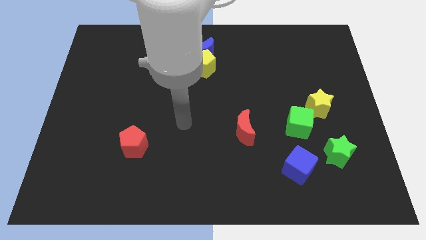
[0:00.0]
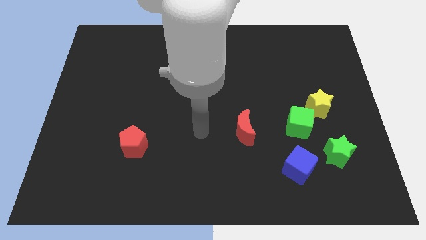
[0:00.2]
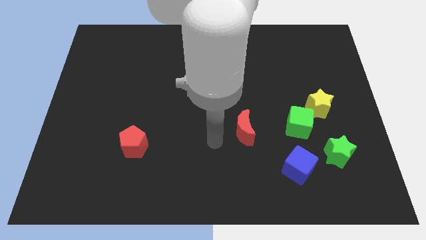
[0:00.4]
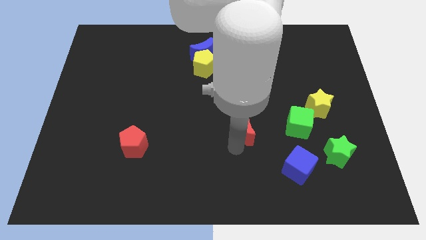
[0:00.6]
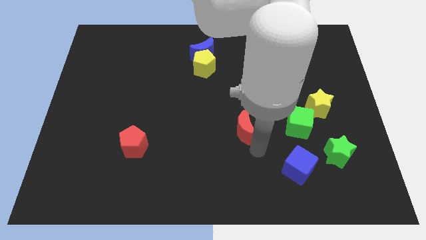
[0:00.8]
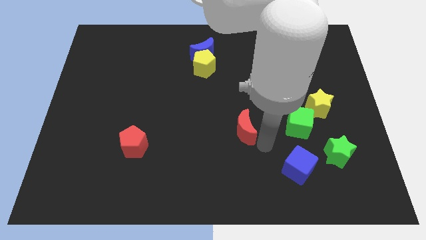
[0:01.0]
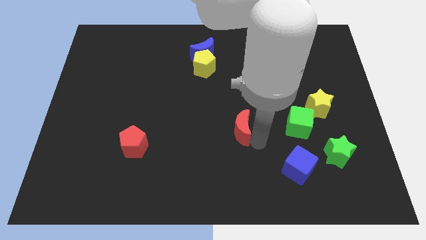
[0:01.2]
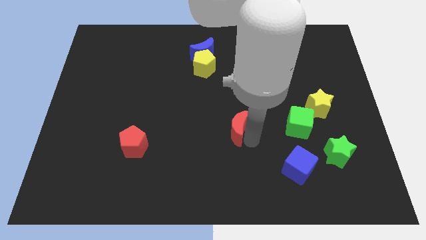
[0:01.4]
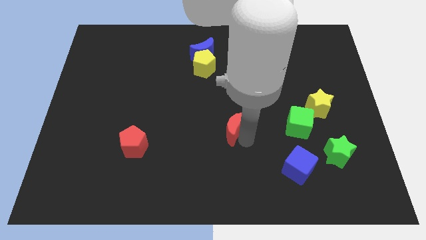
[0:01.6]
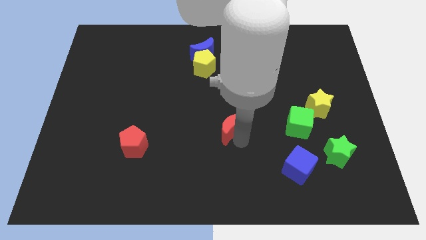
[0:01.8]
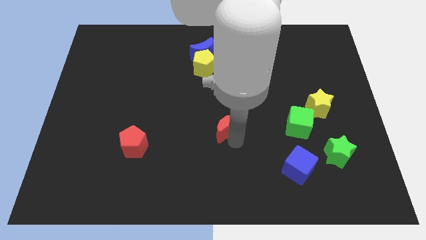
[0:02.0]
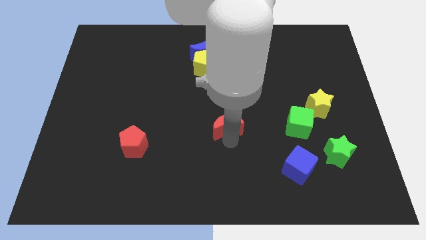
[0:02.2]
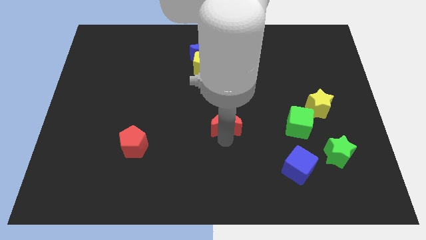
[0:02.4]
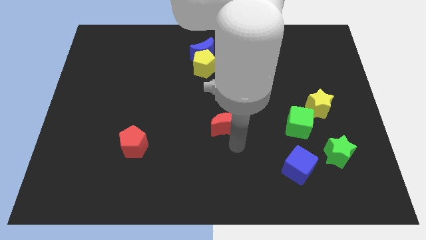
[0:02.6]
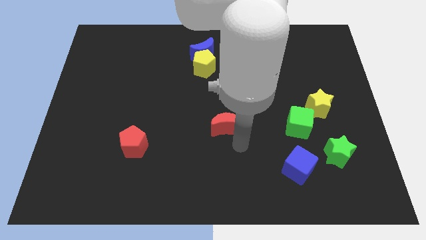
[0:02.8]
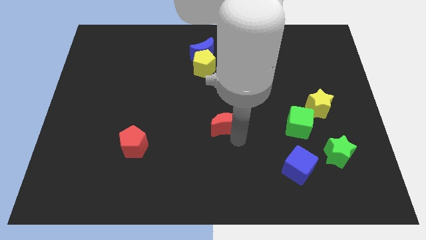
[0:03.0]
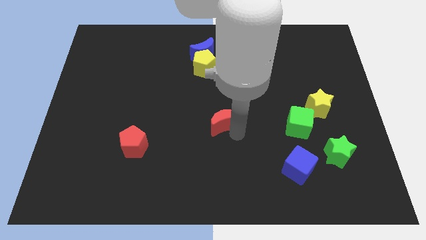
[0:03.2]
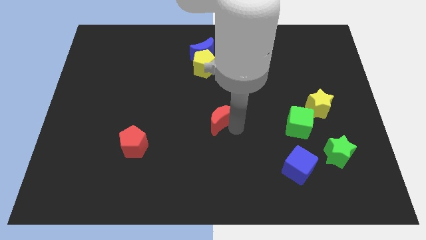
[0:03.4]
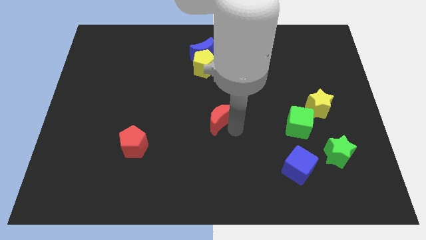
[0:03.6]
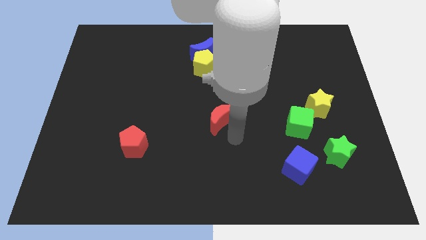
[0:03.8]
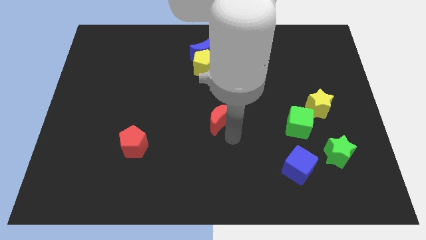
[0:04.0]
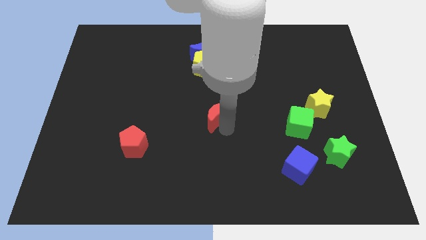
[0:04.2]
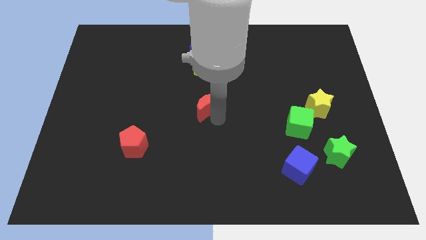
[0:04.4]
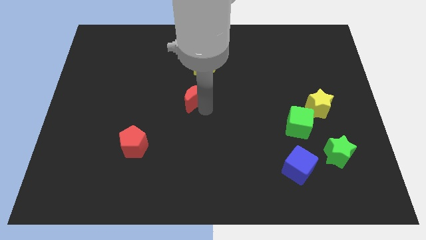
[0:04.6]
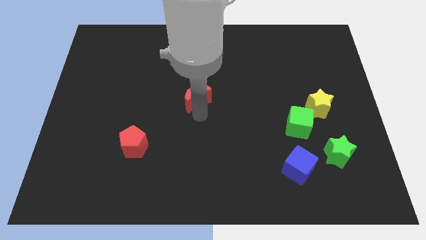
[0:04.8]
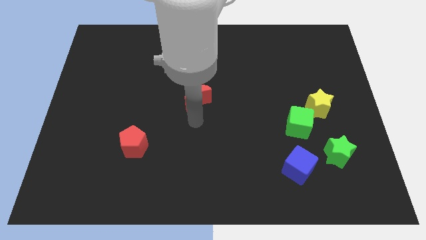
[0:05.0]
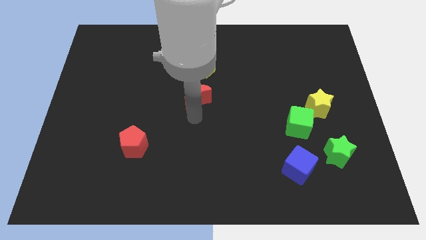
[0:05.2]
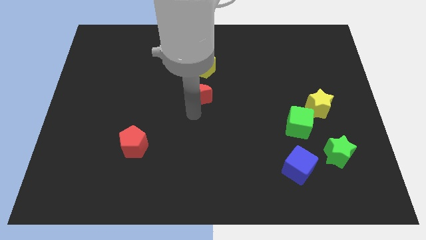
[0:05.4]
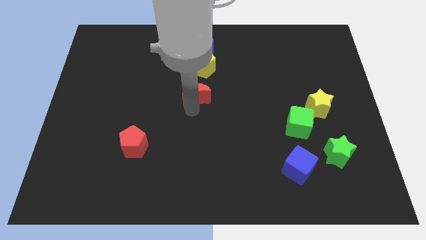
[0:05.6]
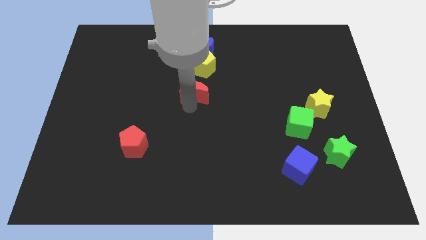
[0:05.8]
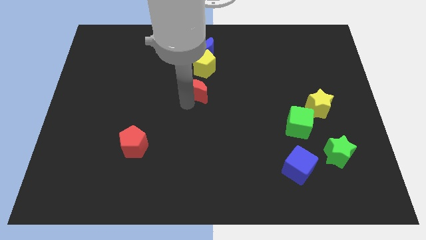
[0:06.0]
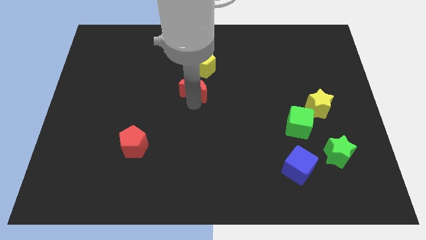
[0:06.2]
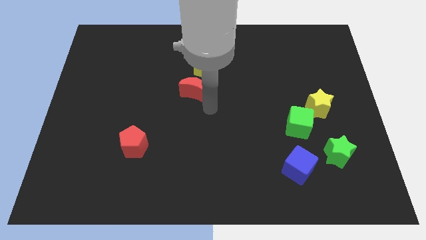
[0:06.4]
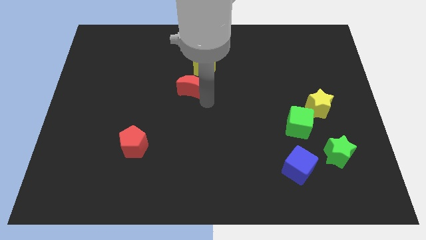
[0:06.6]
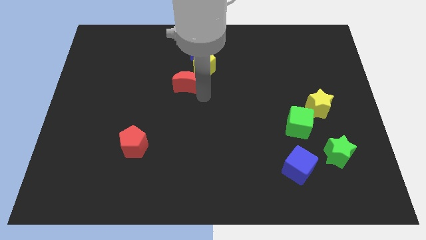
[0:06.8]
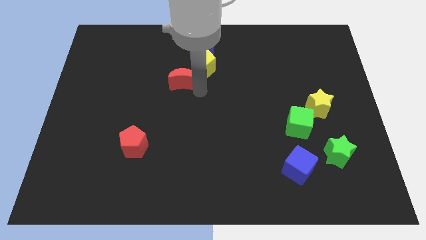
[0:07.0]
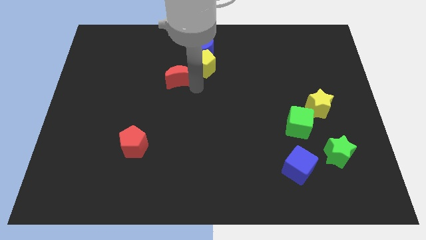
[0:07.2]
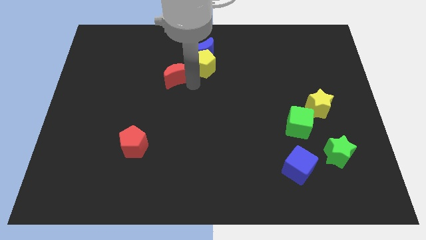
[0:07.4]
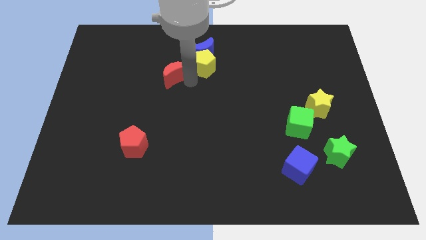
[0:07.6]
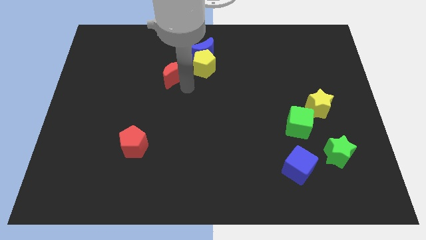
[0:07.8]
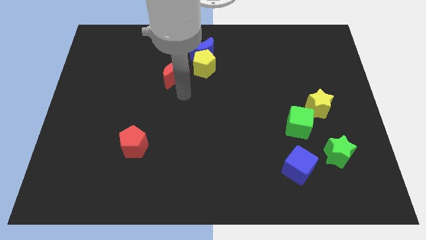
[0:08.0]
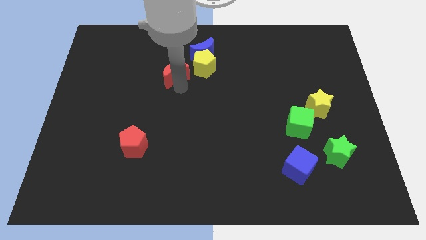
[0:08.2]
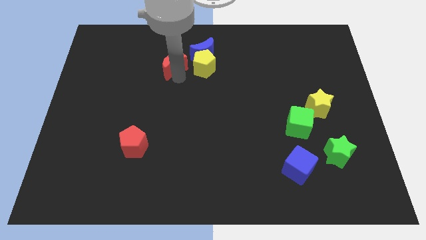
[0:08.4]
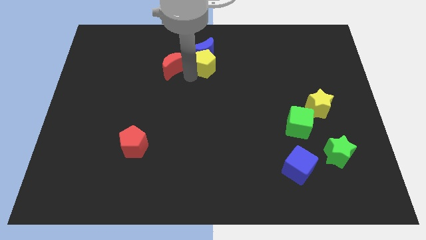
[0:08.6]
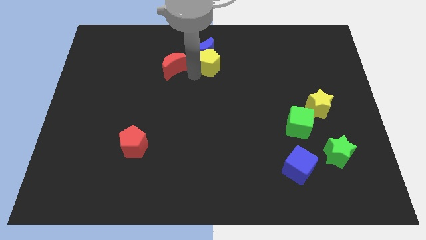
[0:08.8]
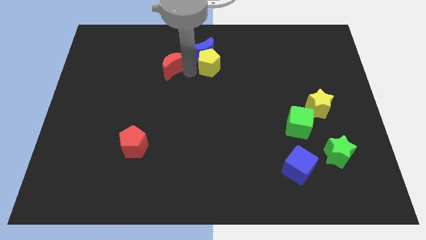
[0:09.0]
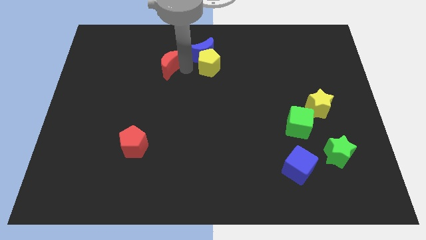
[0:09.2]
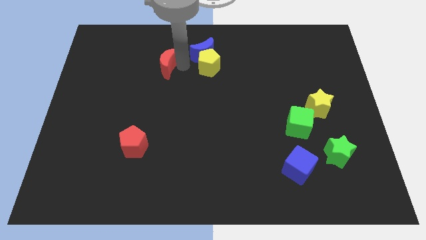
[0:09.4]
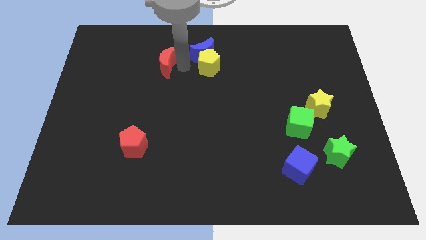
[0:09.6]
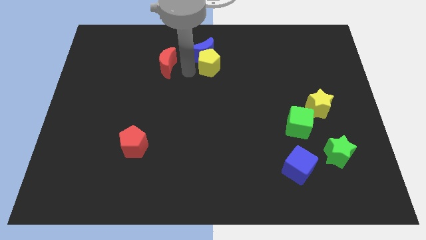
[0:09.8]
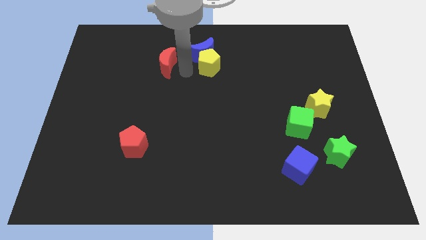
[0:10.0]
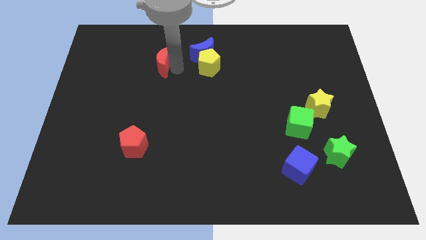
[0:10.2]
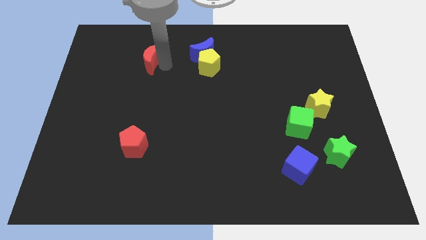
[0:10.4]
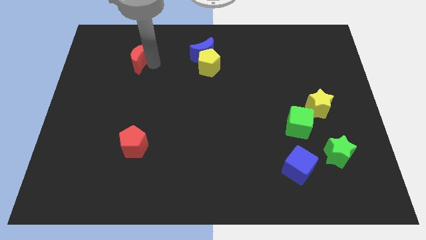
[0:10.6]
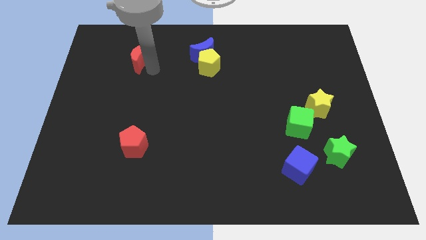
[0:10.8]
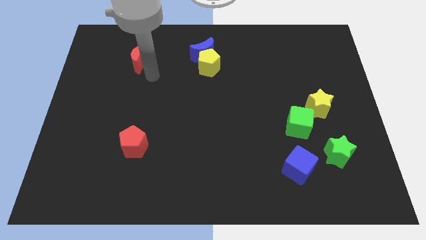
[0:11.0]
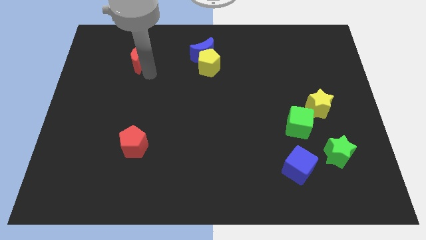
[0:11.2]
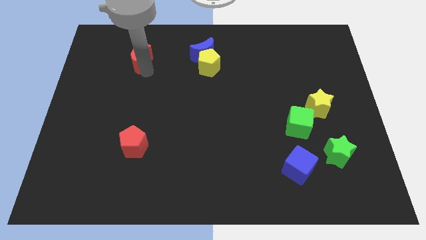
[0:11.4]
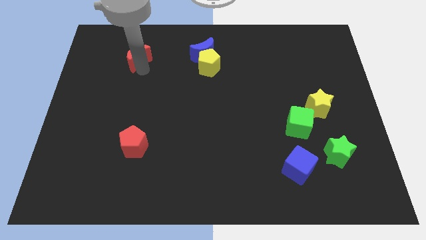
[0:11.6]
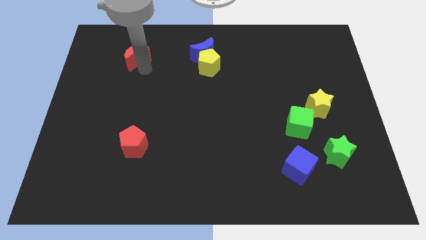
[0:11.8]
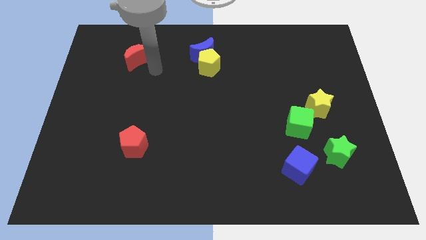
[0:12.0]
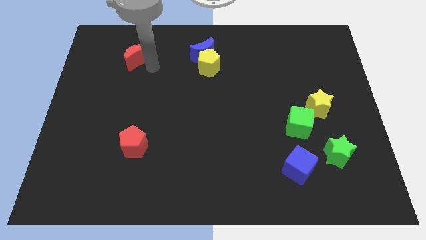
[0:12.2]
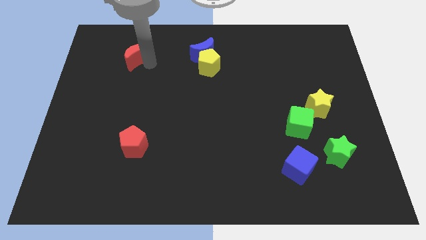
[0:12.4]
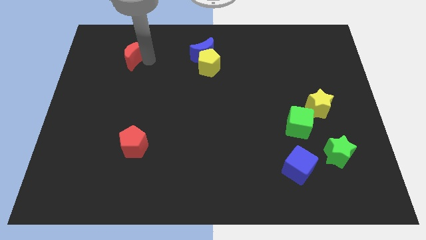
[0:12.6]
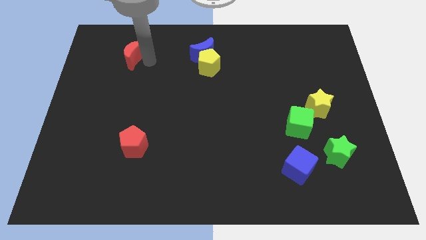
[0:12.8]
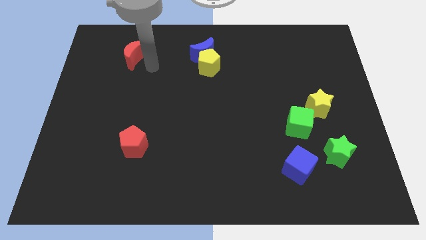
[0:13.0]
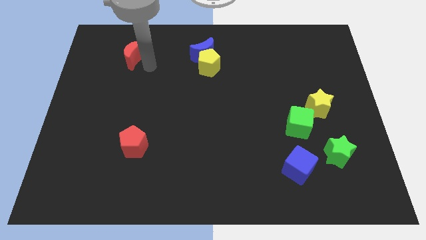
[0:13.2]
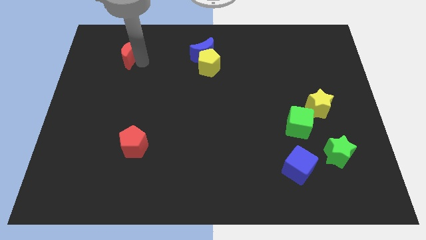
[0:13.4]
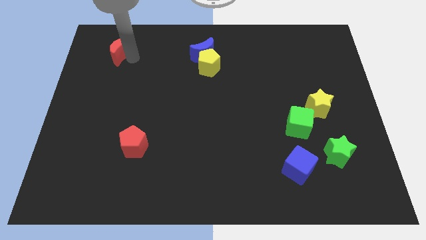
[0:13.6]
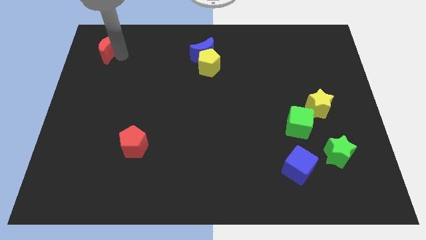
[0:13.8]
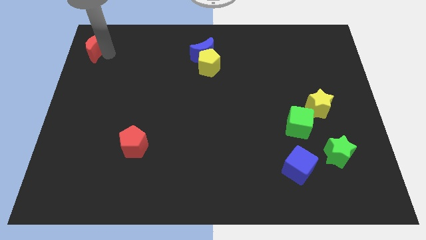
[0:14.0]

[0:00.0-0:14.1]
push the red moon to the top left of the board
